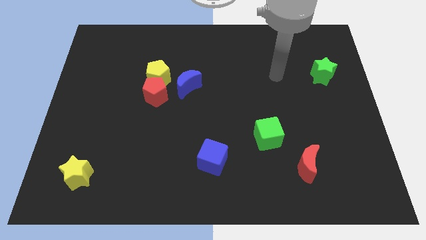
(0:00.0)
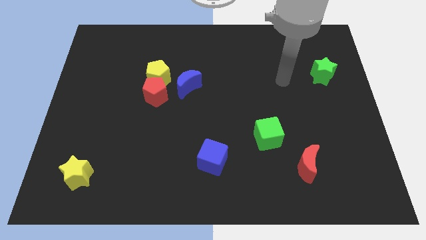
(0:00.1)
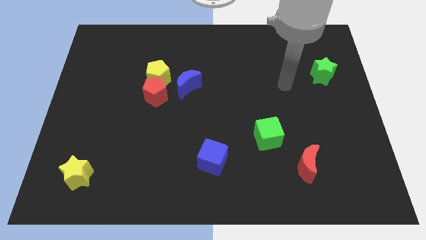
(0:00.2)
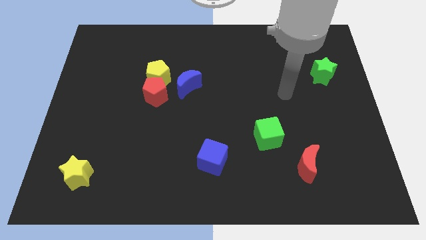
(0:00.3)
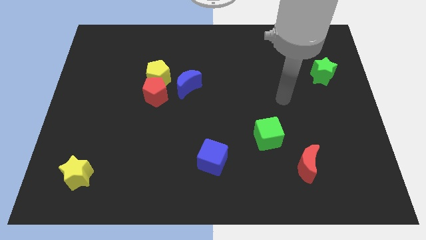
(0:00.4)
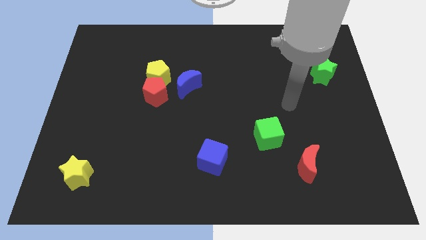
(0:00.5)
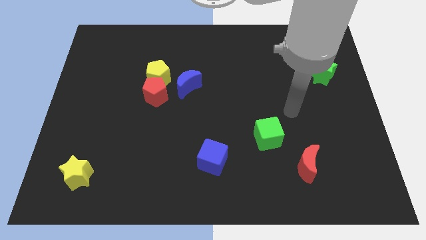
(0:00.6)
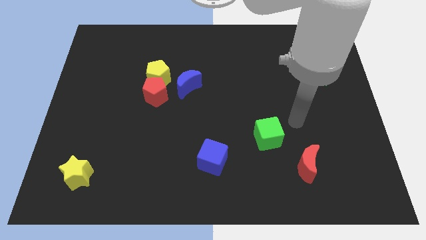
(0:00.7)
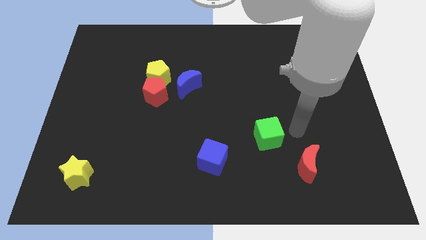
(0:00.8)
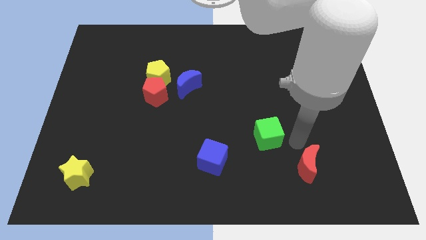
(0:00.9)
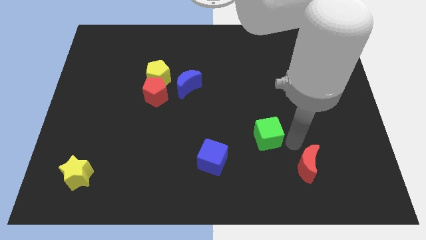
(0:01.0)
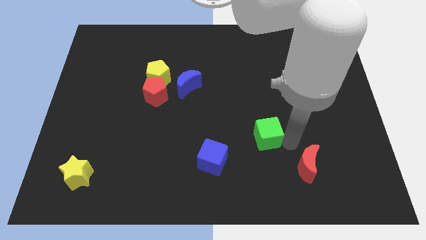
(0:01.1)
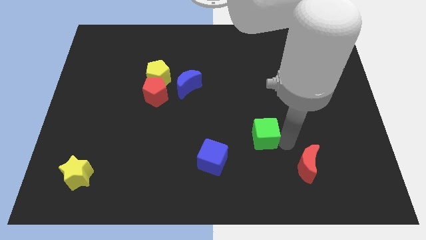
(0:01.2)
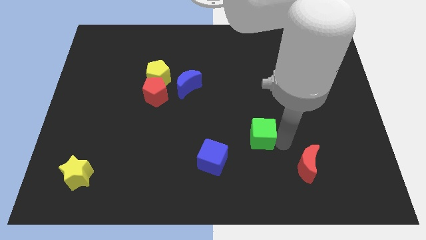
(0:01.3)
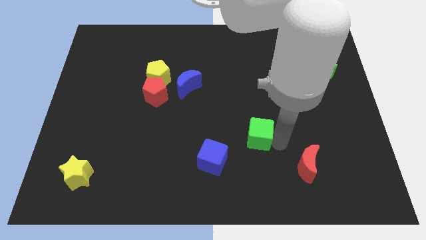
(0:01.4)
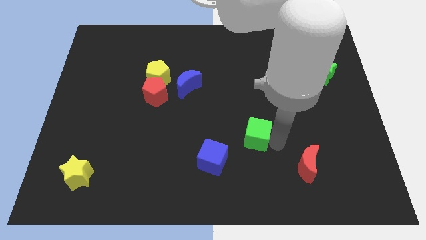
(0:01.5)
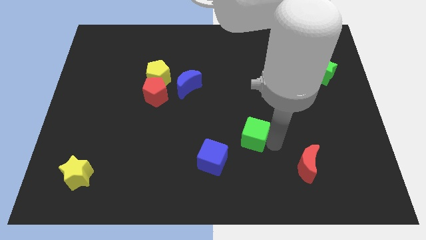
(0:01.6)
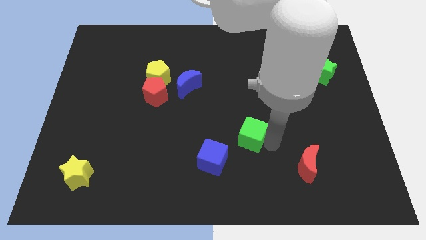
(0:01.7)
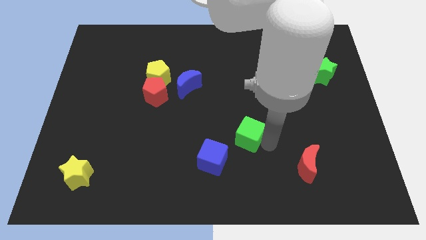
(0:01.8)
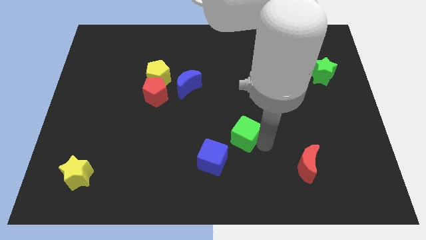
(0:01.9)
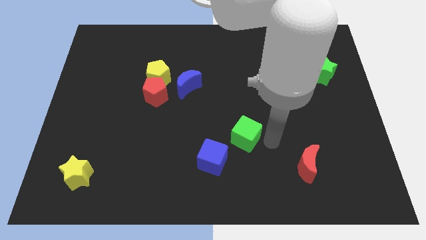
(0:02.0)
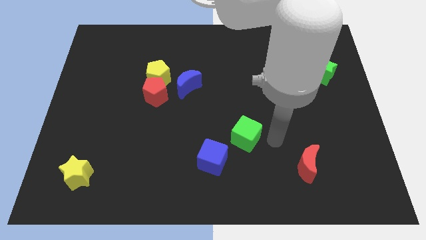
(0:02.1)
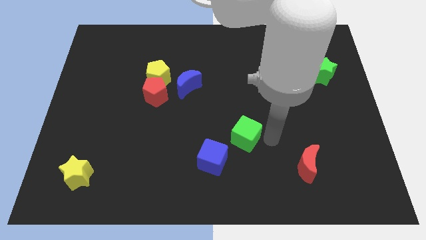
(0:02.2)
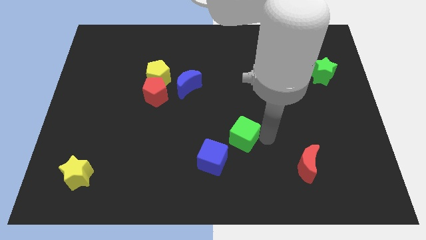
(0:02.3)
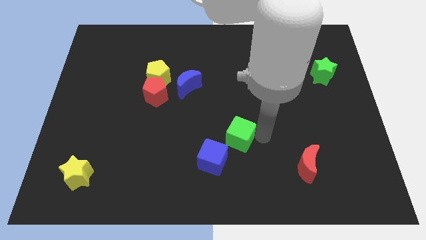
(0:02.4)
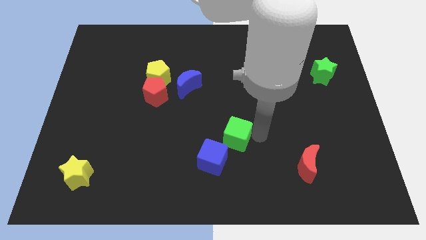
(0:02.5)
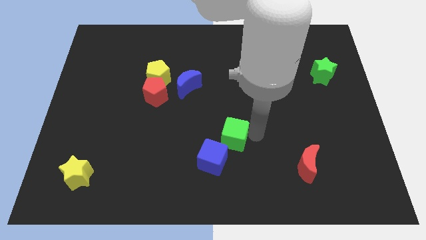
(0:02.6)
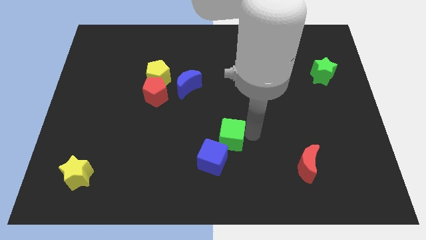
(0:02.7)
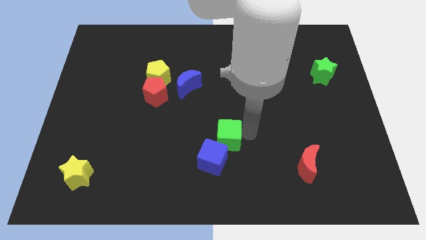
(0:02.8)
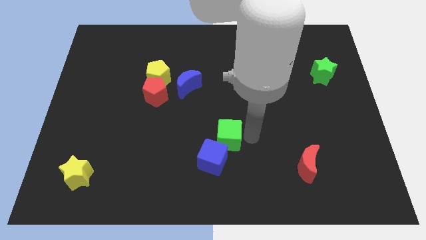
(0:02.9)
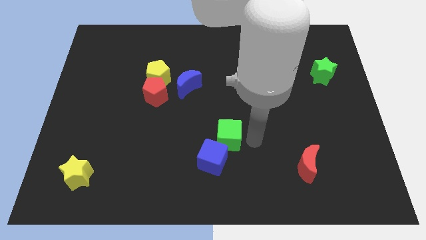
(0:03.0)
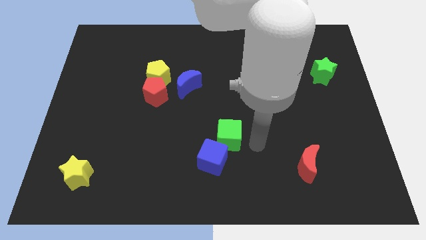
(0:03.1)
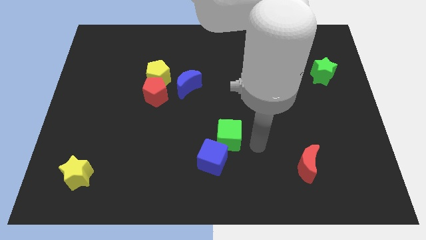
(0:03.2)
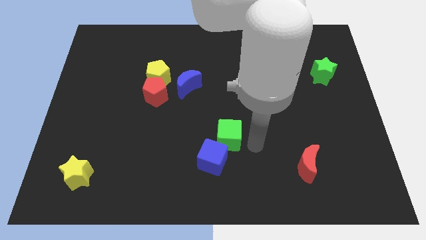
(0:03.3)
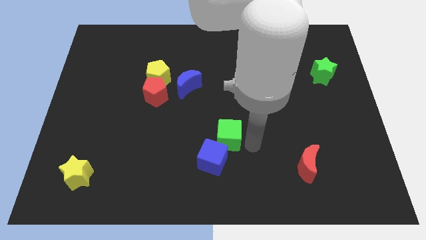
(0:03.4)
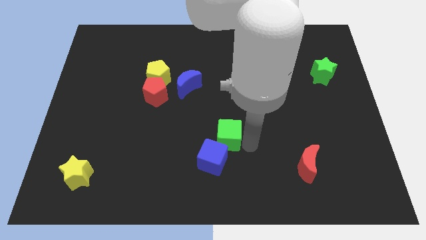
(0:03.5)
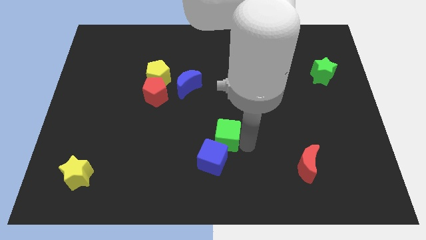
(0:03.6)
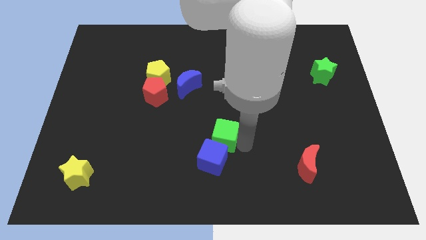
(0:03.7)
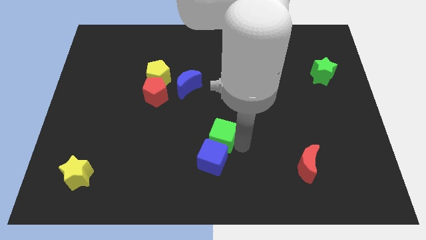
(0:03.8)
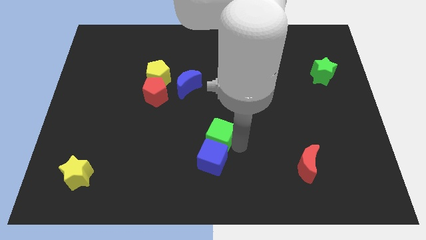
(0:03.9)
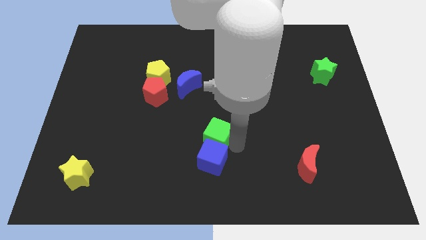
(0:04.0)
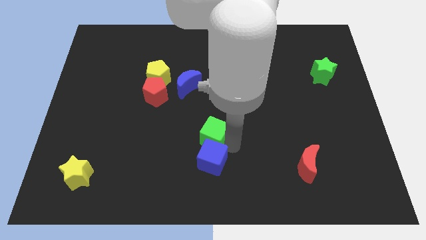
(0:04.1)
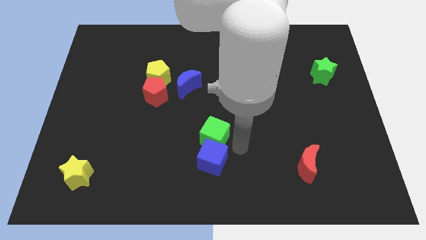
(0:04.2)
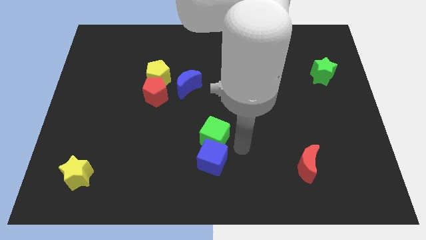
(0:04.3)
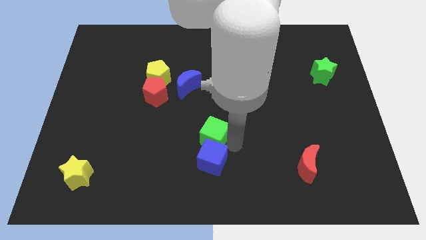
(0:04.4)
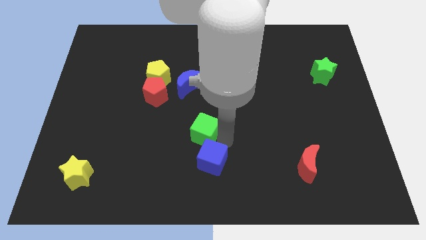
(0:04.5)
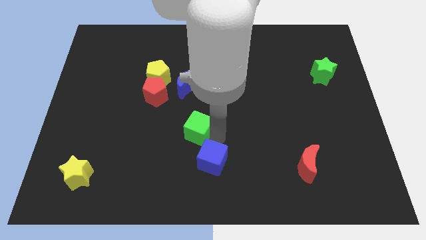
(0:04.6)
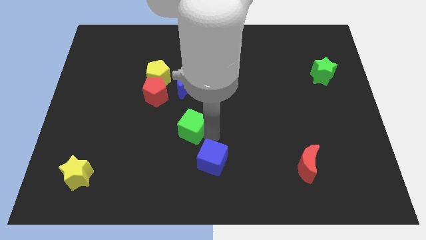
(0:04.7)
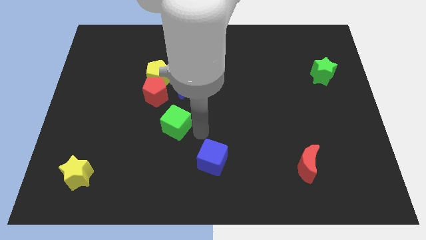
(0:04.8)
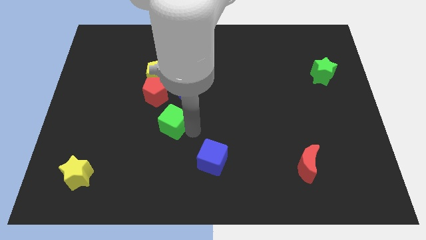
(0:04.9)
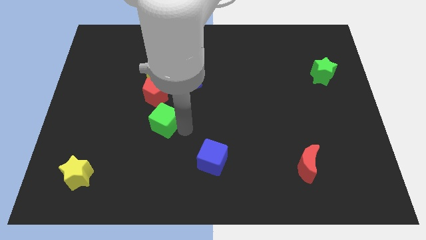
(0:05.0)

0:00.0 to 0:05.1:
slide the green cube below the yellow pentagon

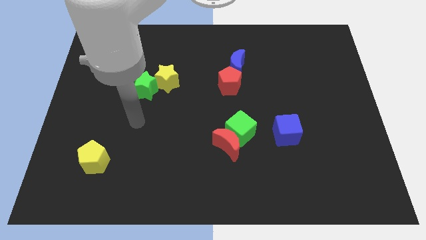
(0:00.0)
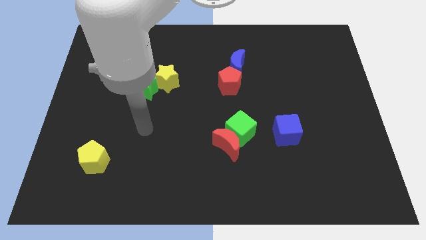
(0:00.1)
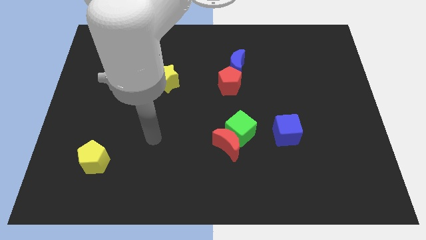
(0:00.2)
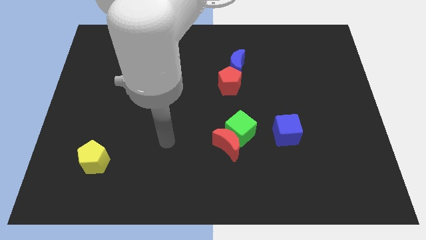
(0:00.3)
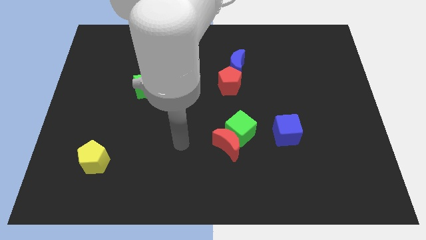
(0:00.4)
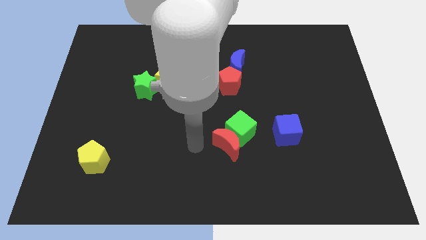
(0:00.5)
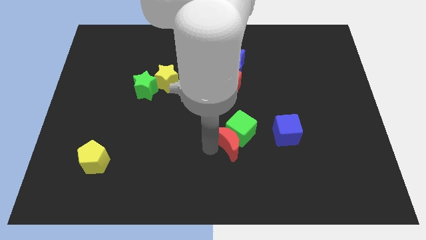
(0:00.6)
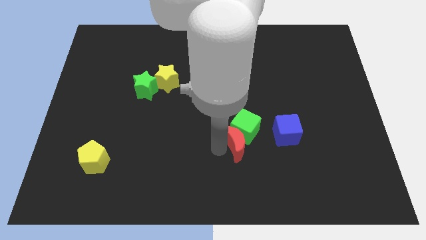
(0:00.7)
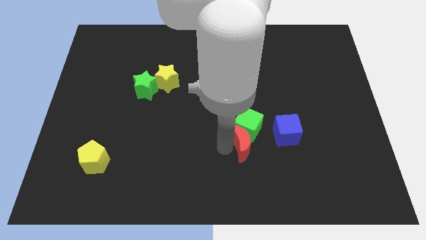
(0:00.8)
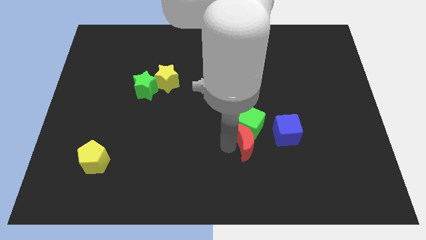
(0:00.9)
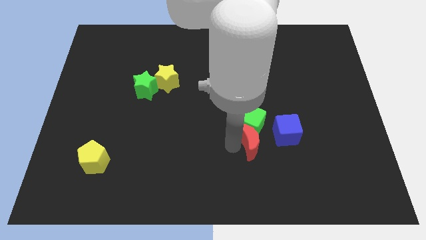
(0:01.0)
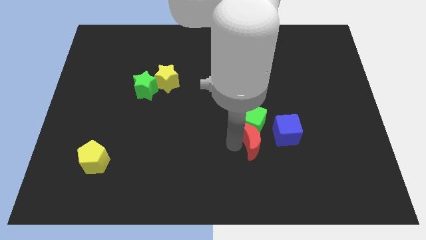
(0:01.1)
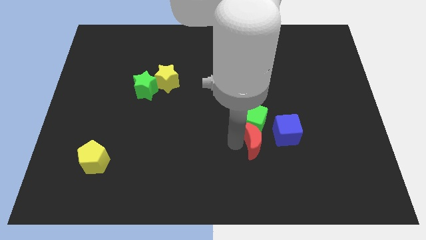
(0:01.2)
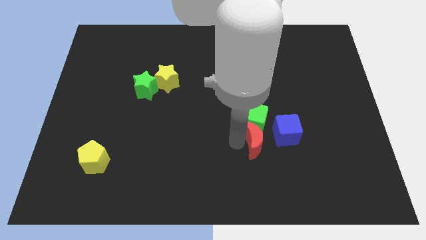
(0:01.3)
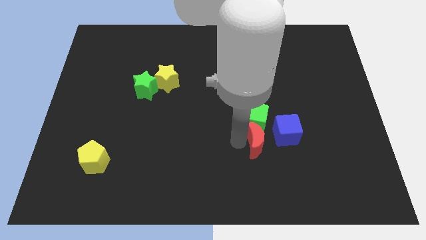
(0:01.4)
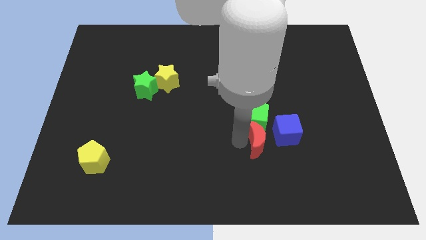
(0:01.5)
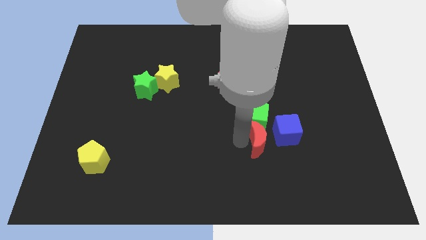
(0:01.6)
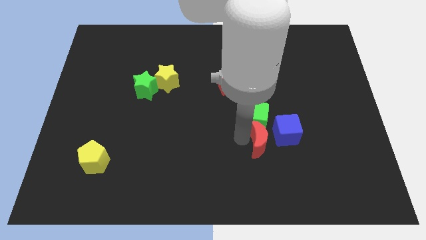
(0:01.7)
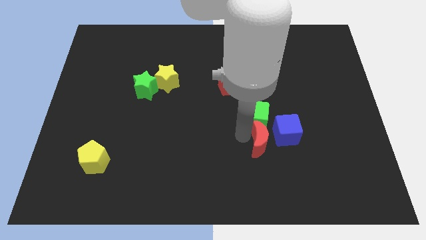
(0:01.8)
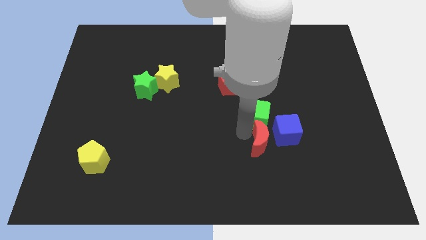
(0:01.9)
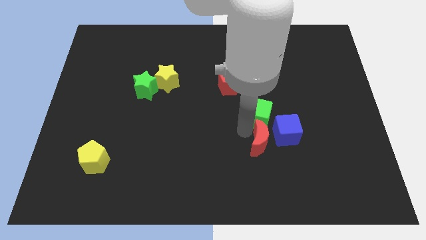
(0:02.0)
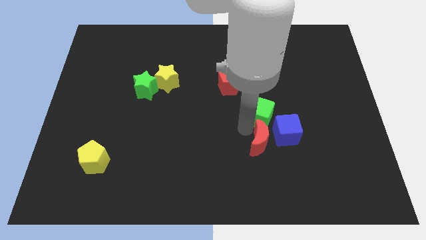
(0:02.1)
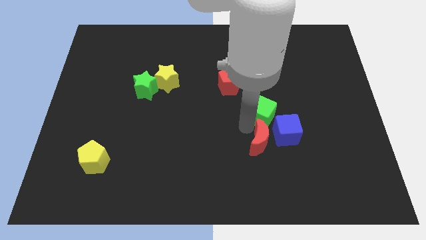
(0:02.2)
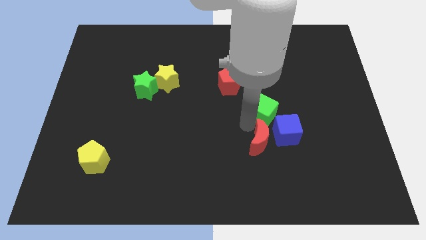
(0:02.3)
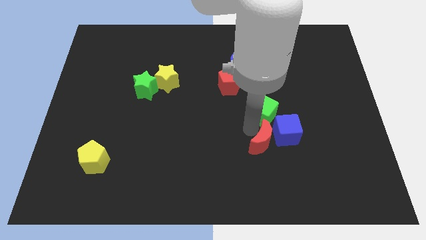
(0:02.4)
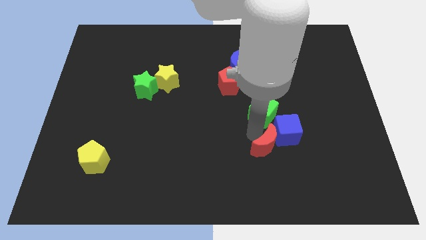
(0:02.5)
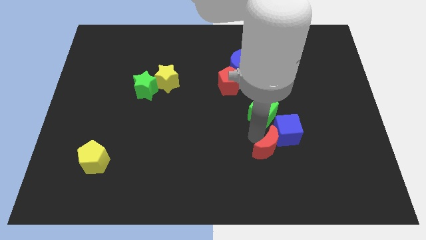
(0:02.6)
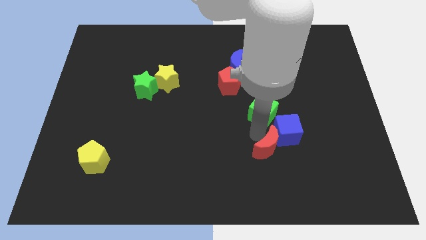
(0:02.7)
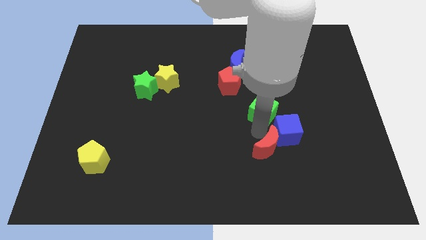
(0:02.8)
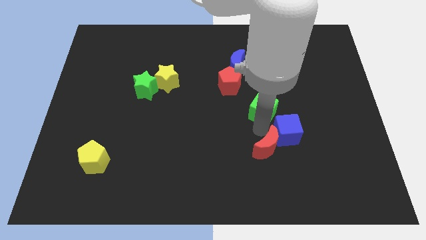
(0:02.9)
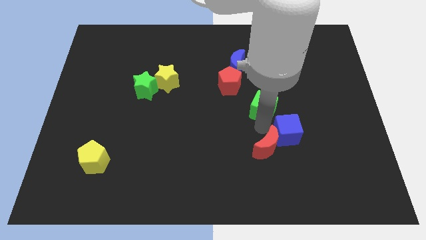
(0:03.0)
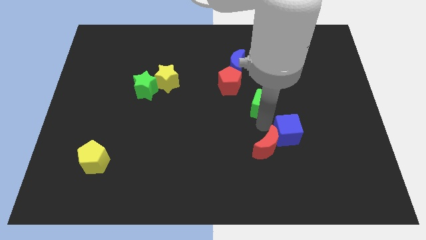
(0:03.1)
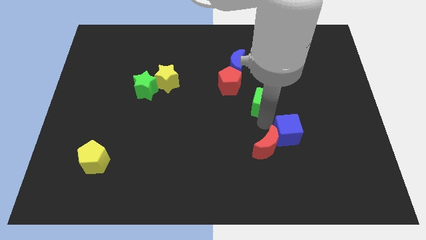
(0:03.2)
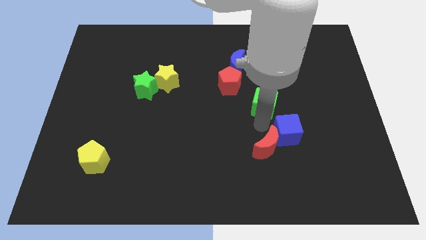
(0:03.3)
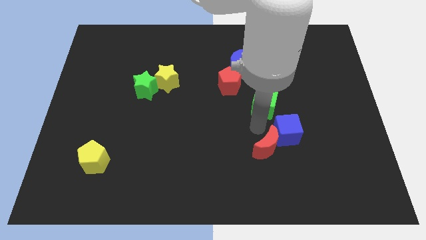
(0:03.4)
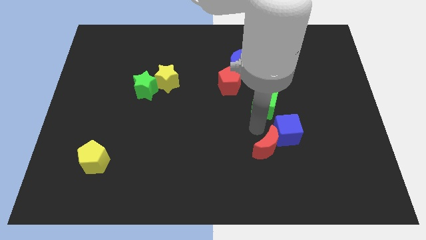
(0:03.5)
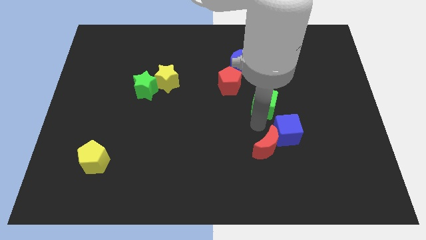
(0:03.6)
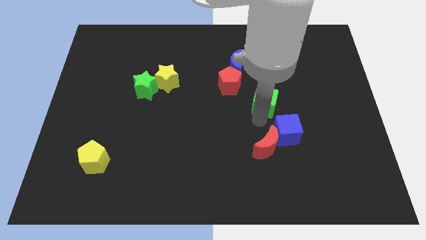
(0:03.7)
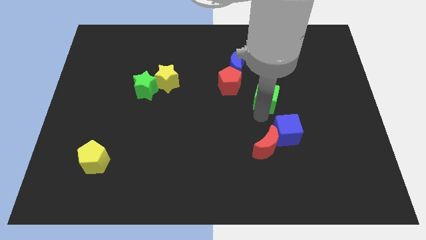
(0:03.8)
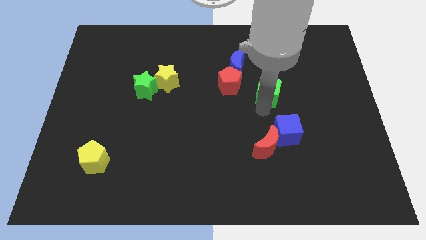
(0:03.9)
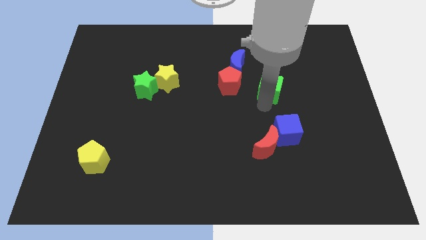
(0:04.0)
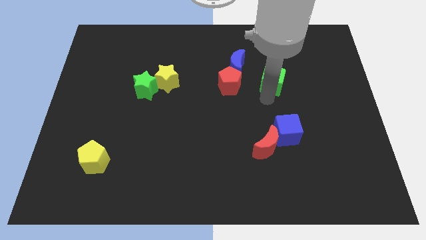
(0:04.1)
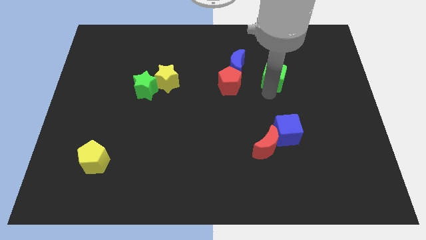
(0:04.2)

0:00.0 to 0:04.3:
slide the green cube to the right of the blue moon
